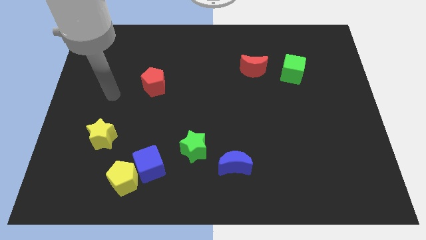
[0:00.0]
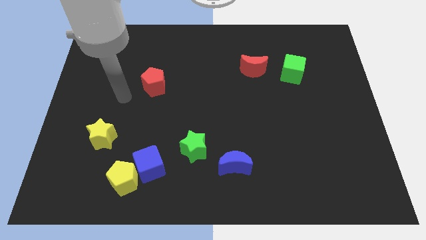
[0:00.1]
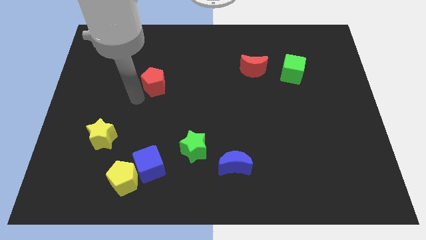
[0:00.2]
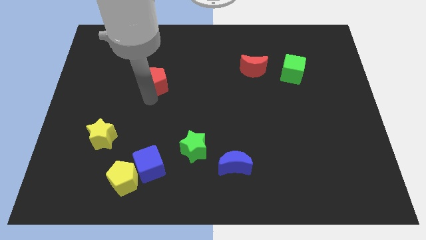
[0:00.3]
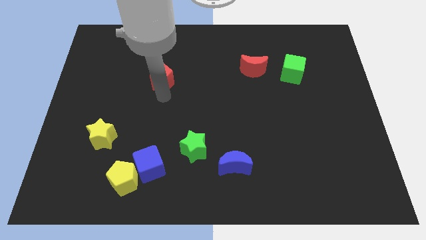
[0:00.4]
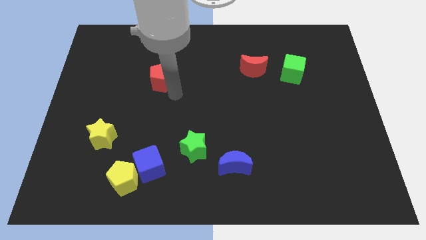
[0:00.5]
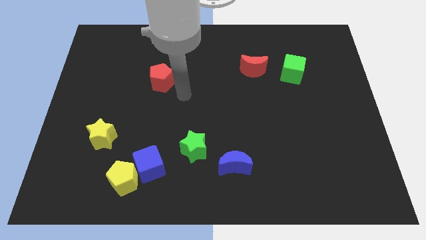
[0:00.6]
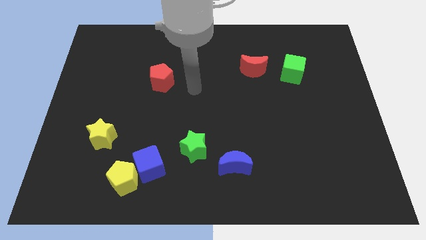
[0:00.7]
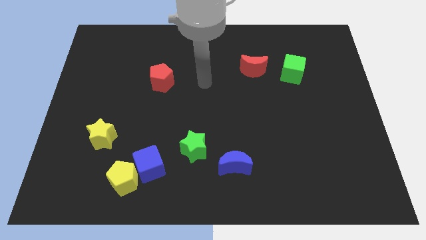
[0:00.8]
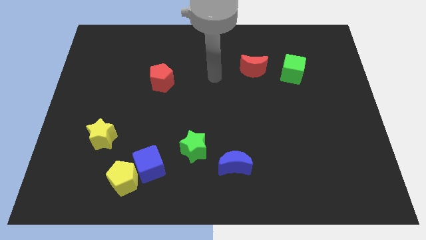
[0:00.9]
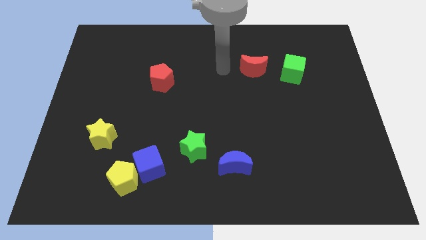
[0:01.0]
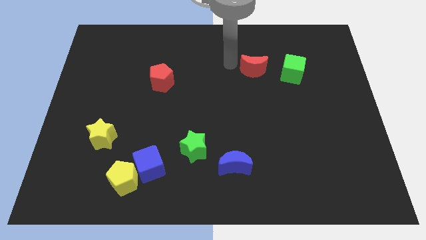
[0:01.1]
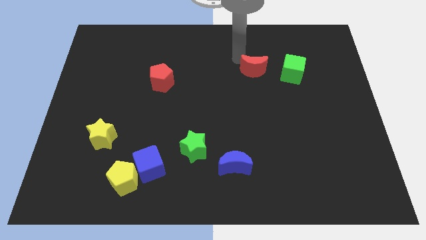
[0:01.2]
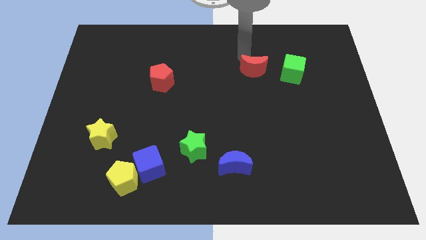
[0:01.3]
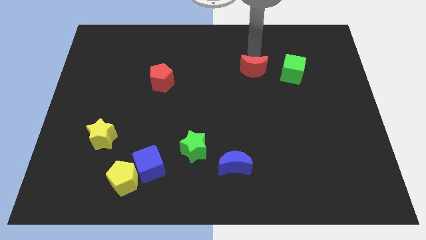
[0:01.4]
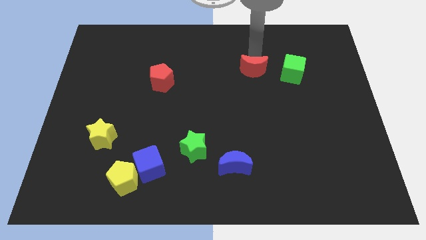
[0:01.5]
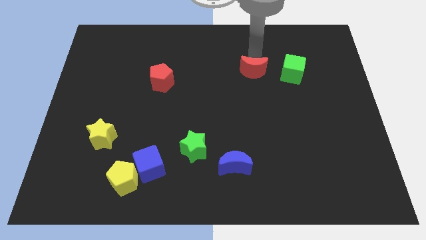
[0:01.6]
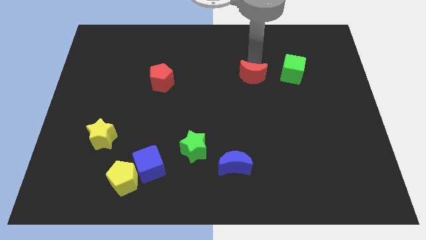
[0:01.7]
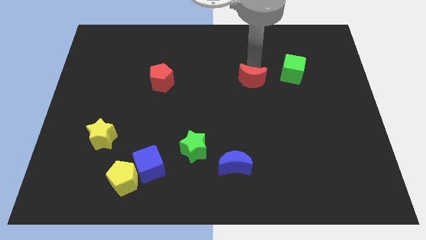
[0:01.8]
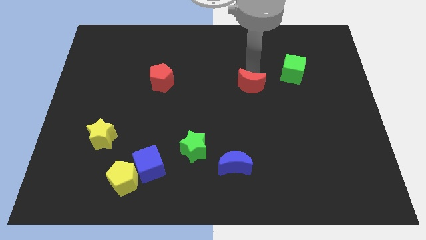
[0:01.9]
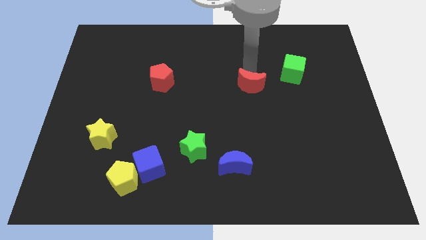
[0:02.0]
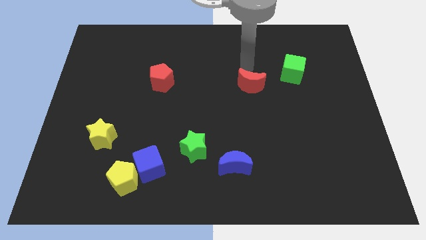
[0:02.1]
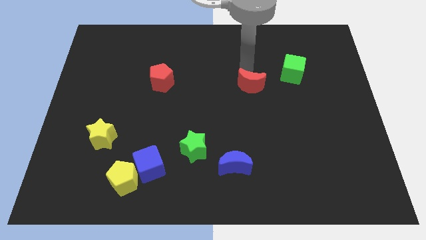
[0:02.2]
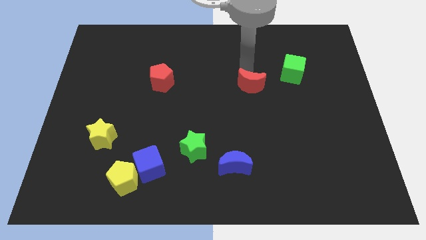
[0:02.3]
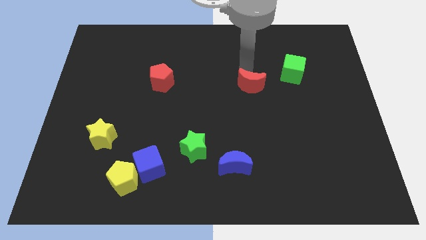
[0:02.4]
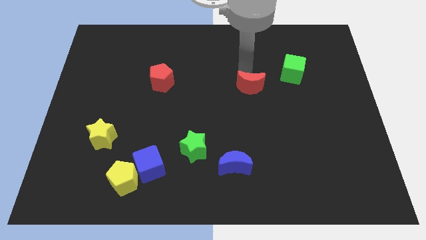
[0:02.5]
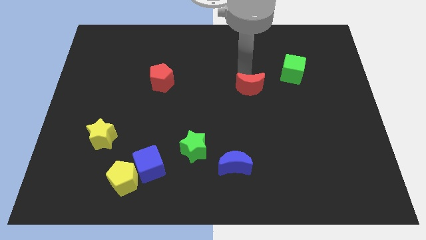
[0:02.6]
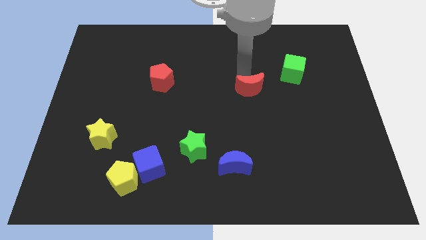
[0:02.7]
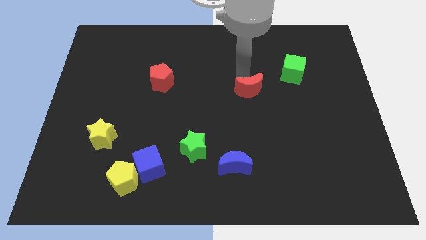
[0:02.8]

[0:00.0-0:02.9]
slightly slide the red moon downwards

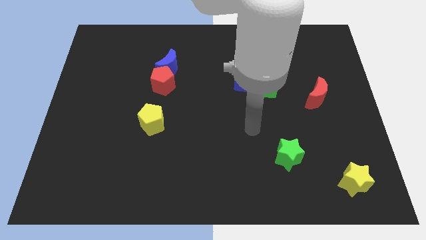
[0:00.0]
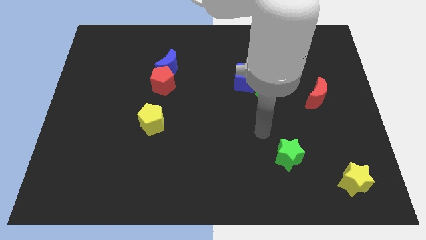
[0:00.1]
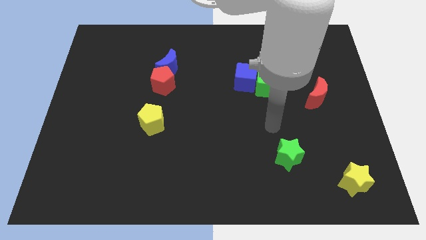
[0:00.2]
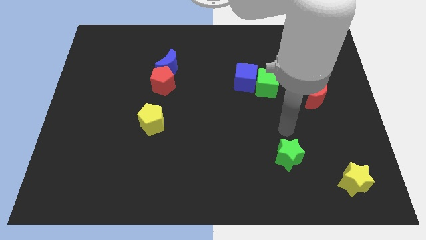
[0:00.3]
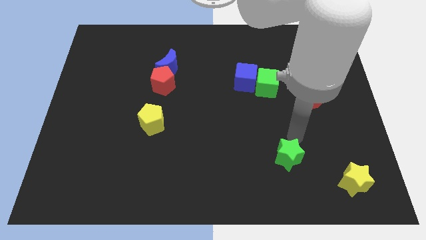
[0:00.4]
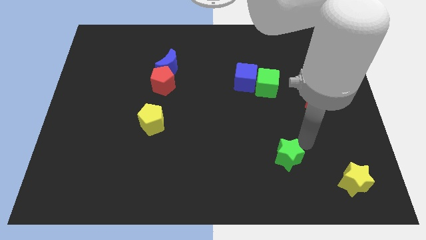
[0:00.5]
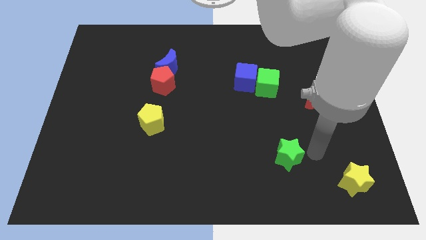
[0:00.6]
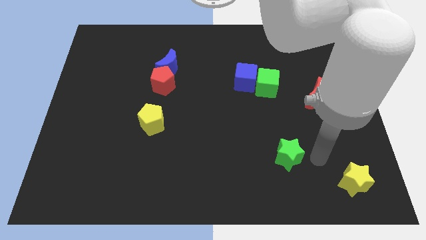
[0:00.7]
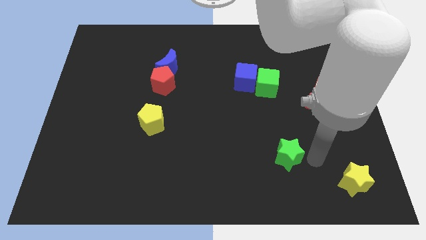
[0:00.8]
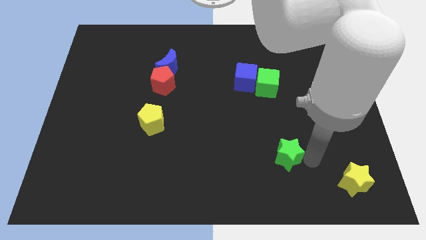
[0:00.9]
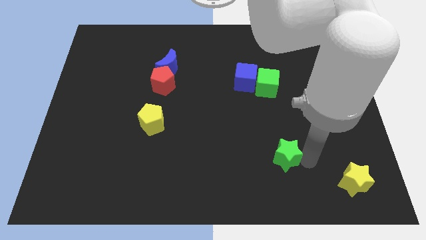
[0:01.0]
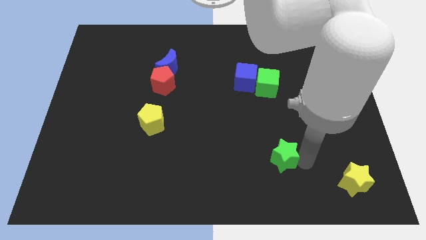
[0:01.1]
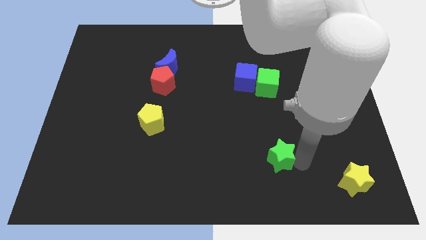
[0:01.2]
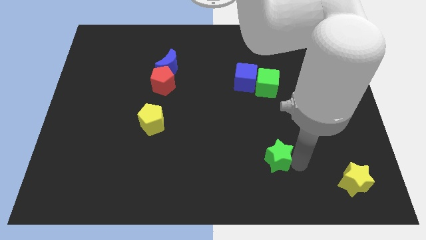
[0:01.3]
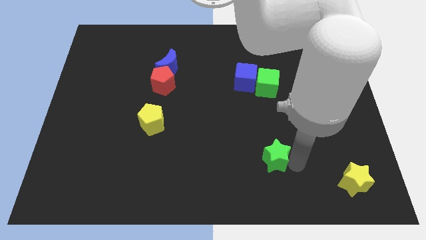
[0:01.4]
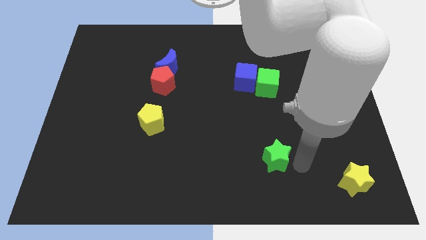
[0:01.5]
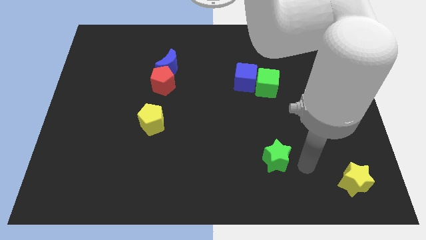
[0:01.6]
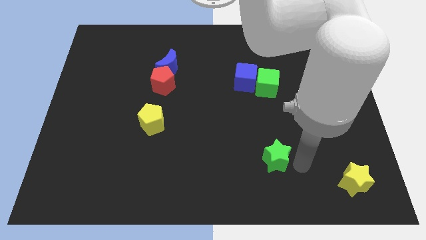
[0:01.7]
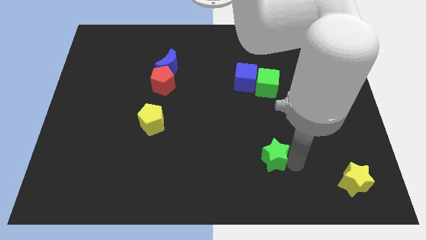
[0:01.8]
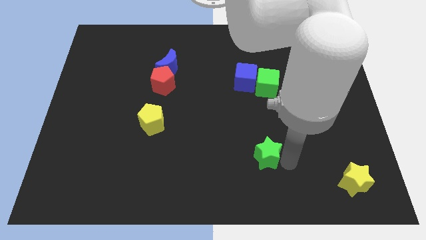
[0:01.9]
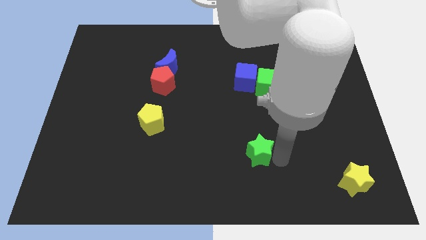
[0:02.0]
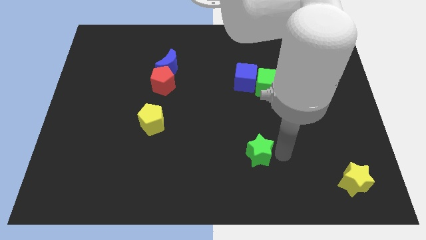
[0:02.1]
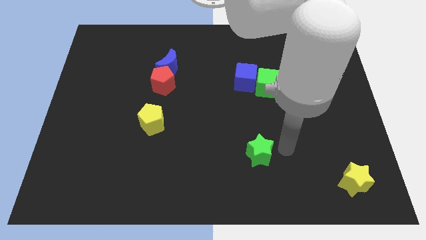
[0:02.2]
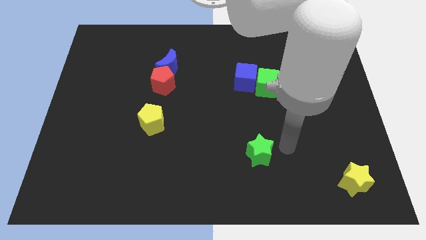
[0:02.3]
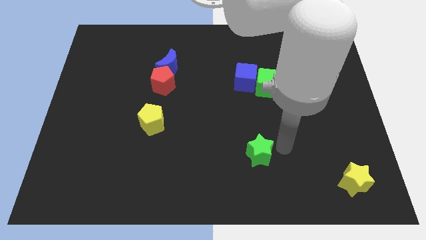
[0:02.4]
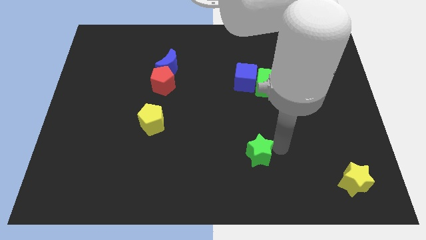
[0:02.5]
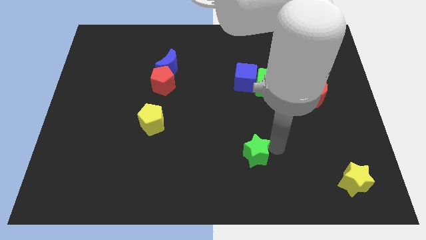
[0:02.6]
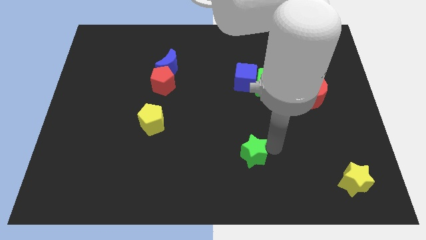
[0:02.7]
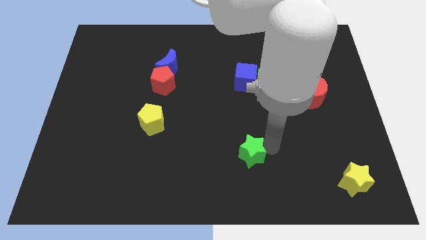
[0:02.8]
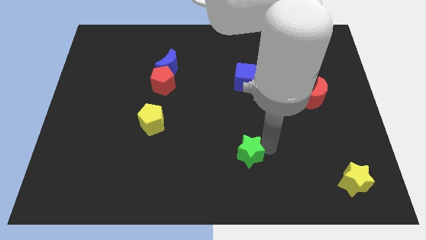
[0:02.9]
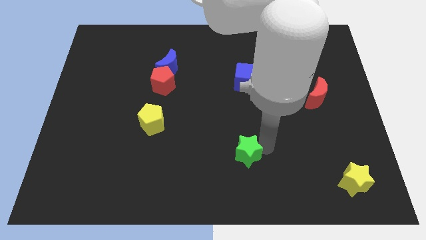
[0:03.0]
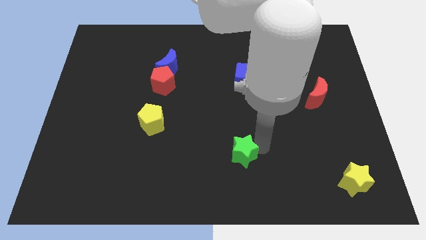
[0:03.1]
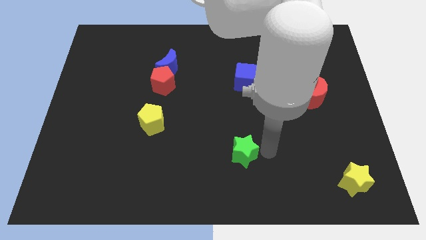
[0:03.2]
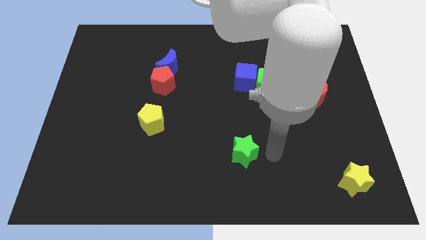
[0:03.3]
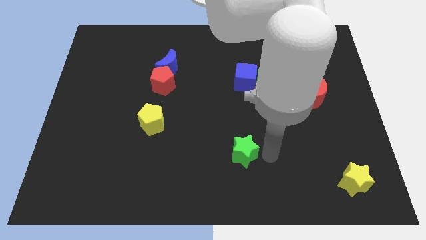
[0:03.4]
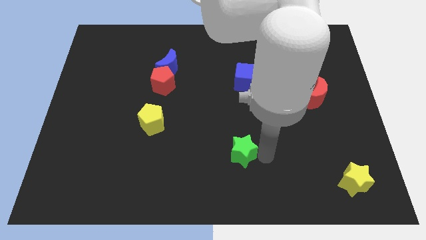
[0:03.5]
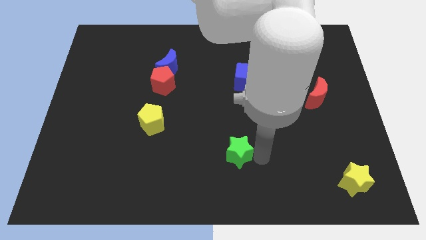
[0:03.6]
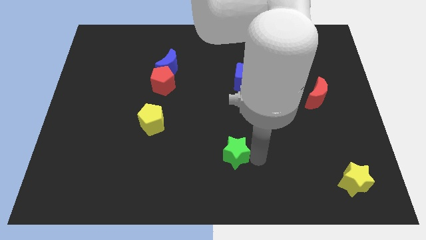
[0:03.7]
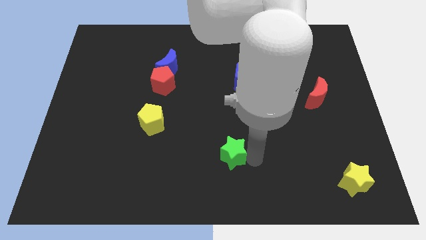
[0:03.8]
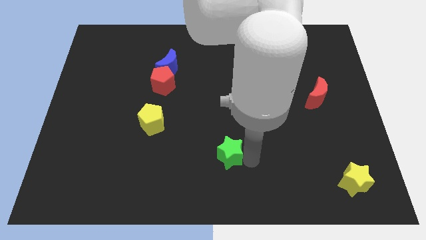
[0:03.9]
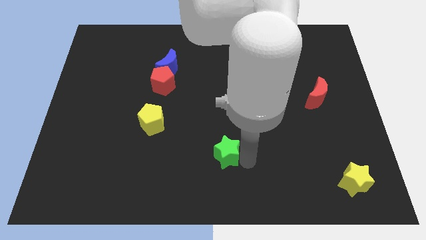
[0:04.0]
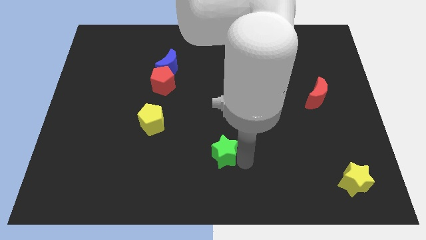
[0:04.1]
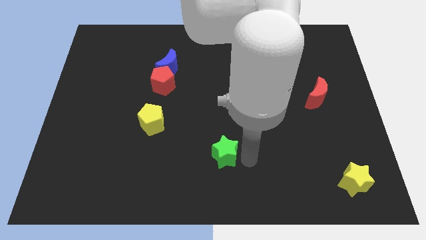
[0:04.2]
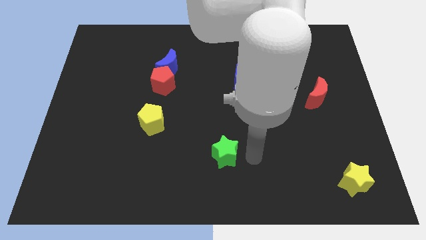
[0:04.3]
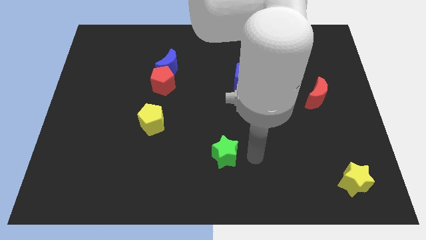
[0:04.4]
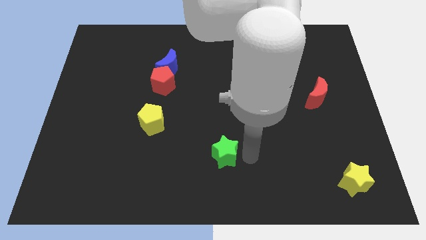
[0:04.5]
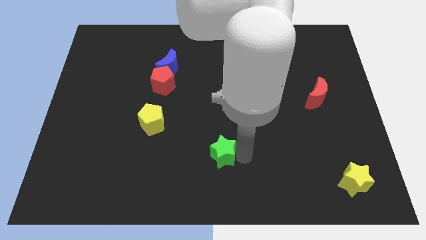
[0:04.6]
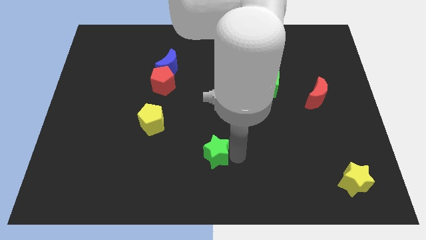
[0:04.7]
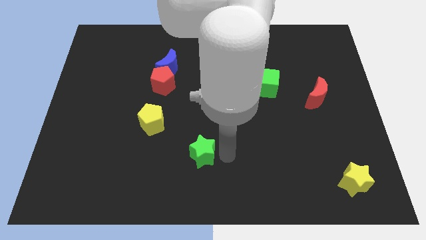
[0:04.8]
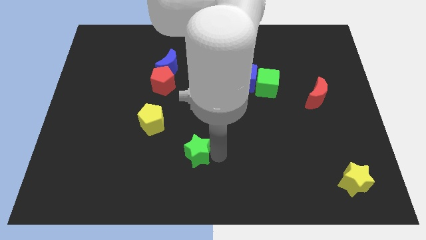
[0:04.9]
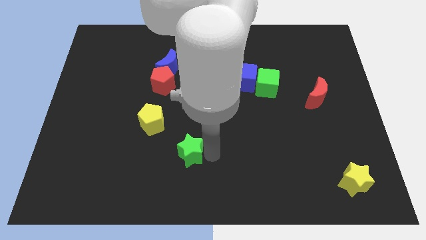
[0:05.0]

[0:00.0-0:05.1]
push the green star left

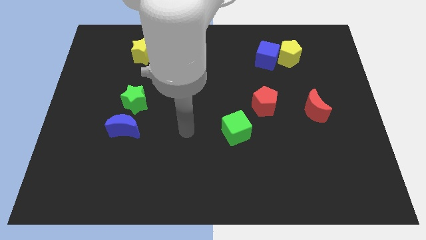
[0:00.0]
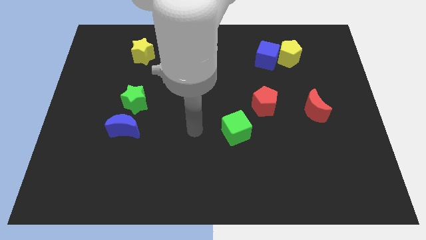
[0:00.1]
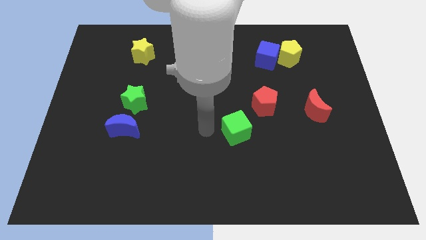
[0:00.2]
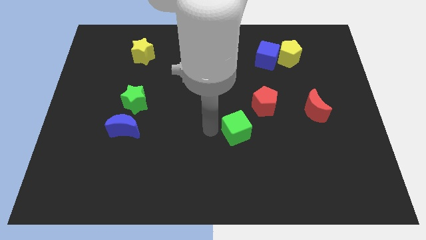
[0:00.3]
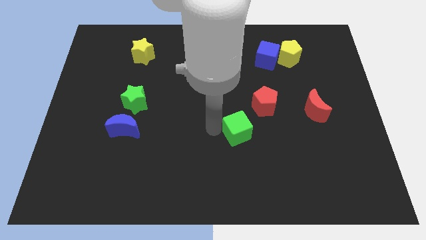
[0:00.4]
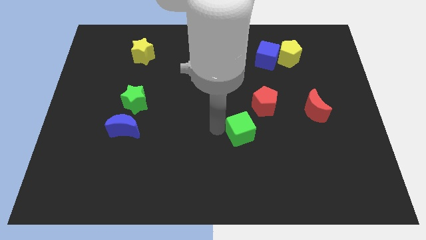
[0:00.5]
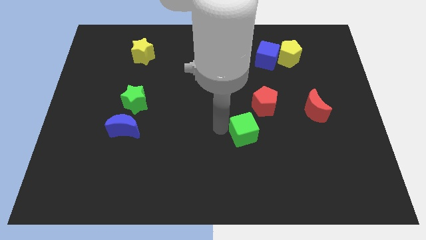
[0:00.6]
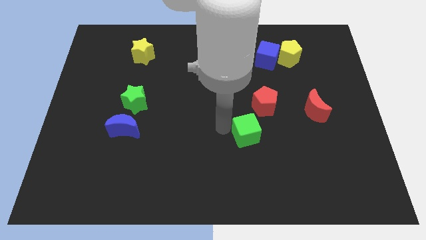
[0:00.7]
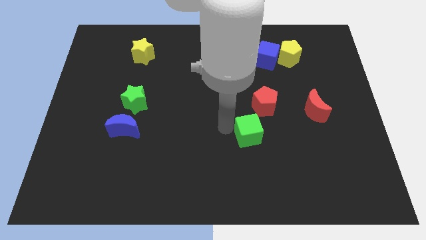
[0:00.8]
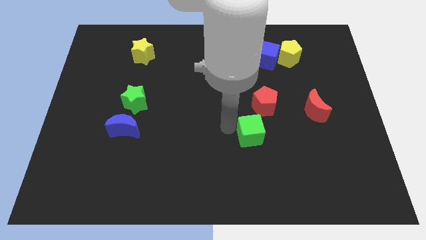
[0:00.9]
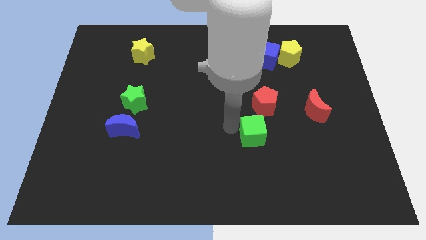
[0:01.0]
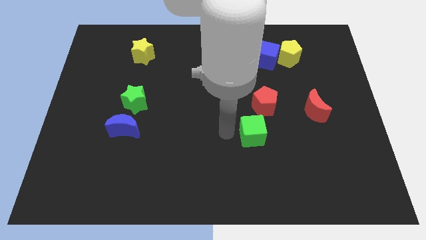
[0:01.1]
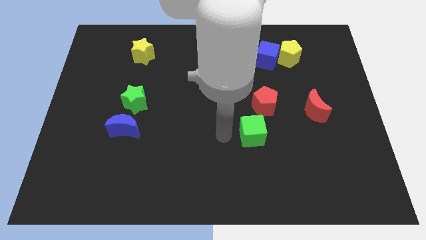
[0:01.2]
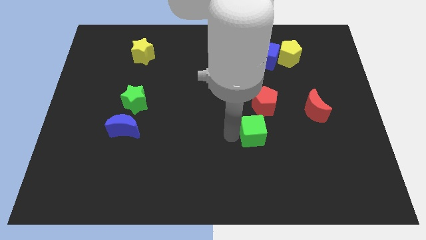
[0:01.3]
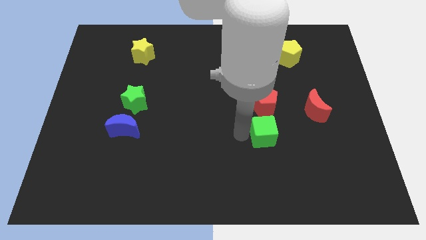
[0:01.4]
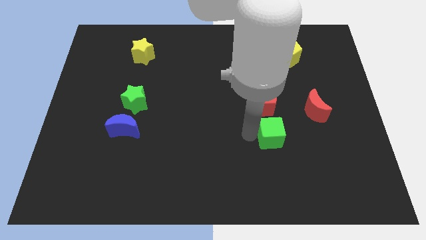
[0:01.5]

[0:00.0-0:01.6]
slightly move the green cube right
